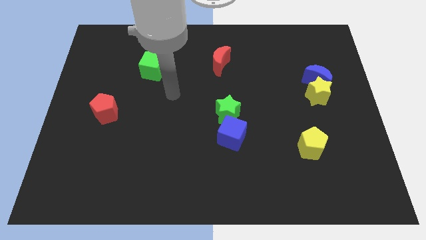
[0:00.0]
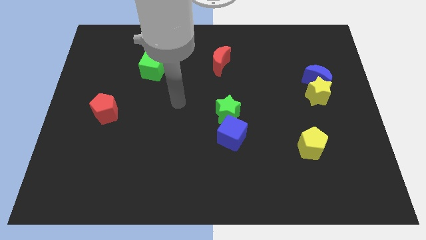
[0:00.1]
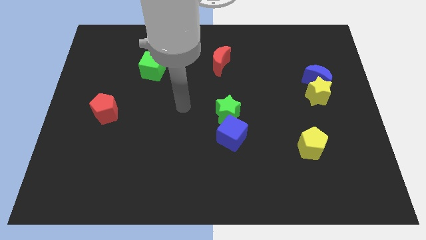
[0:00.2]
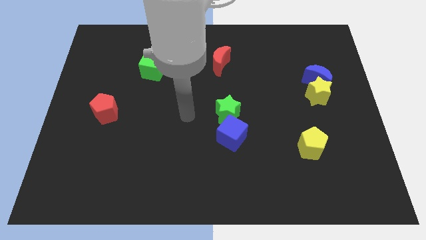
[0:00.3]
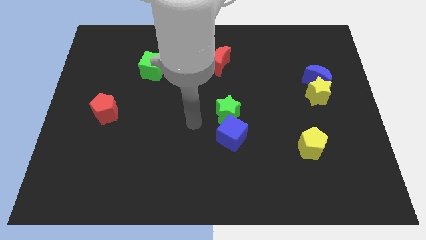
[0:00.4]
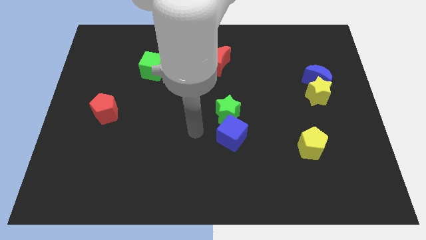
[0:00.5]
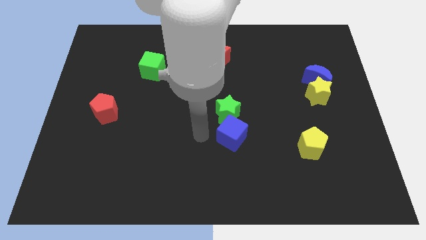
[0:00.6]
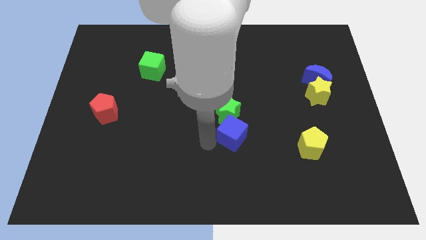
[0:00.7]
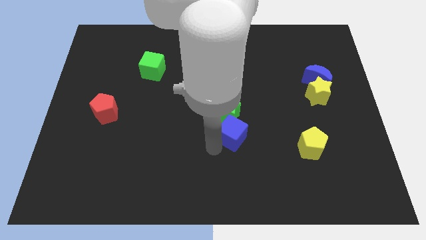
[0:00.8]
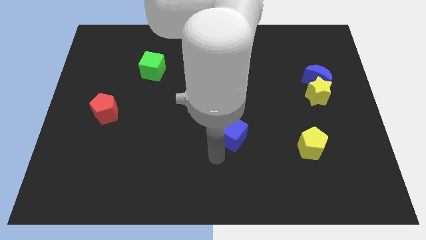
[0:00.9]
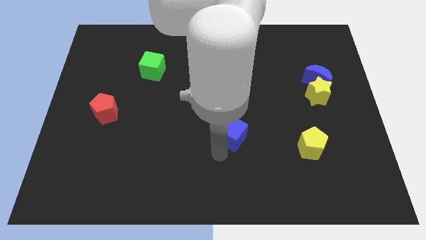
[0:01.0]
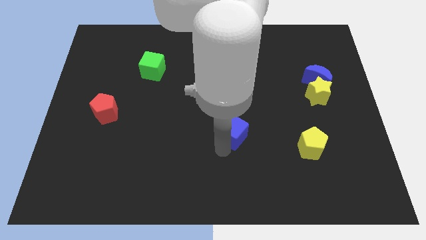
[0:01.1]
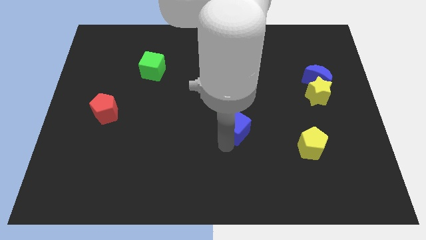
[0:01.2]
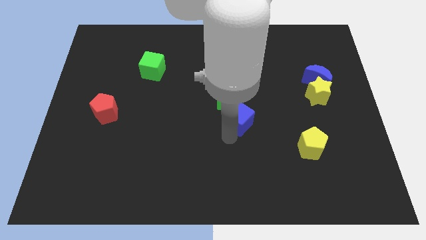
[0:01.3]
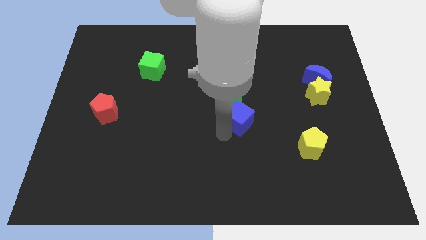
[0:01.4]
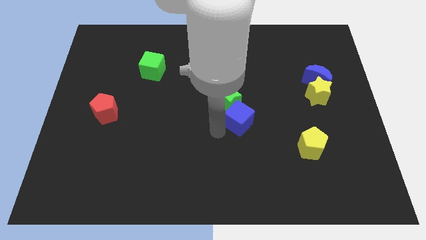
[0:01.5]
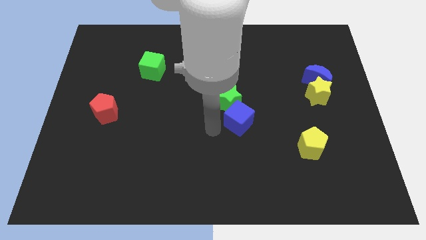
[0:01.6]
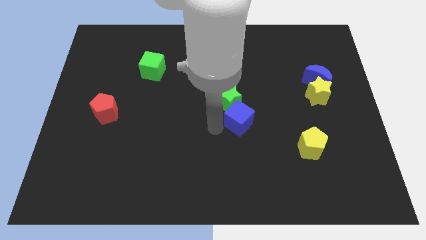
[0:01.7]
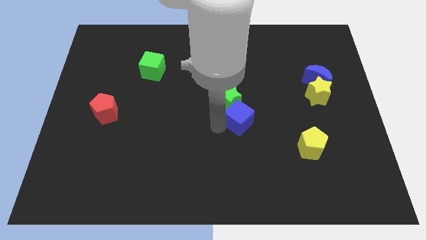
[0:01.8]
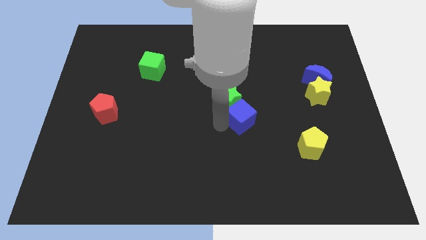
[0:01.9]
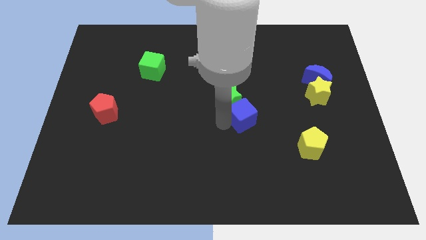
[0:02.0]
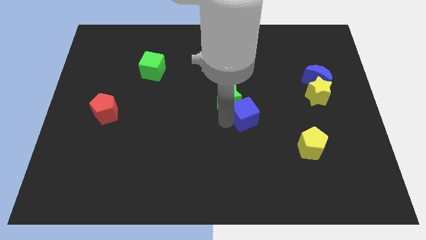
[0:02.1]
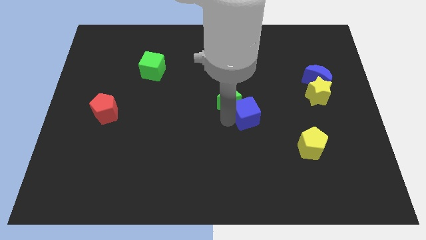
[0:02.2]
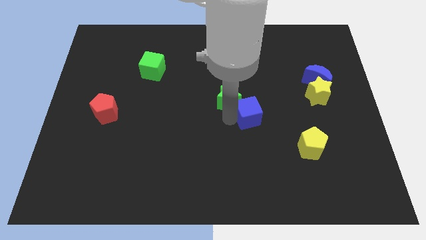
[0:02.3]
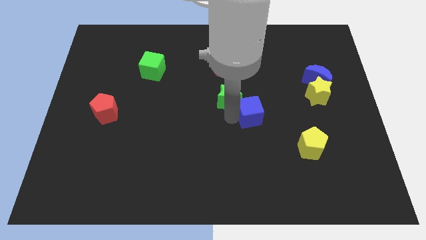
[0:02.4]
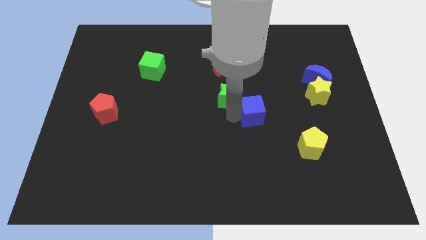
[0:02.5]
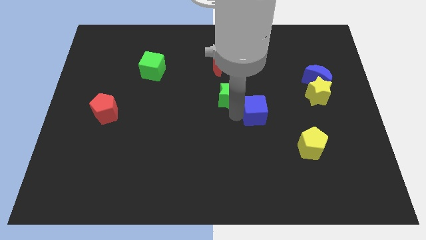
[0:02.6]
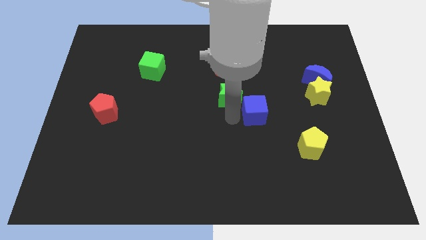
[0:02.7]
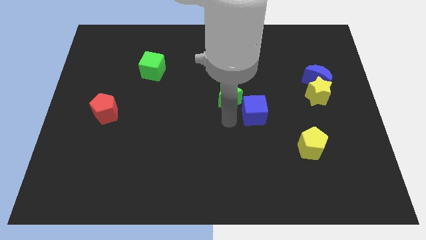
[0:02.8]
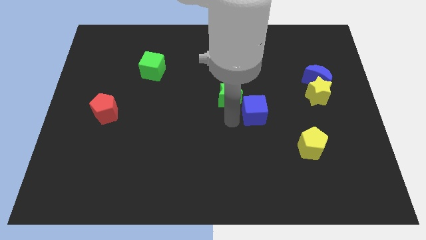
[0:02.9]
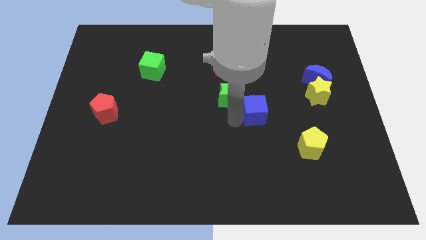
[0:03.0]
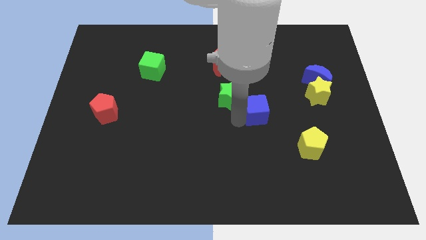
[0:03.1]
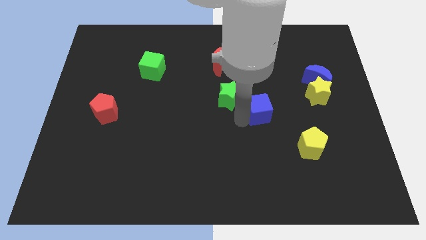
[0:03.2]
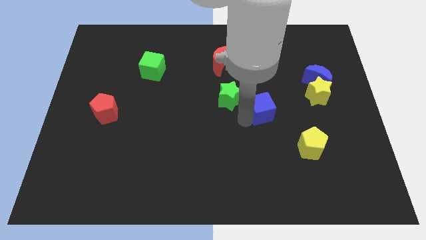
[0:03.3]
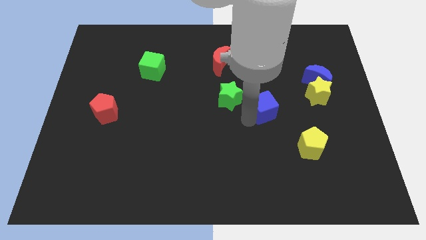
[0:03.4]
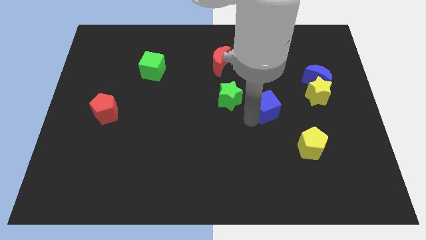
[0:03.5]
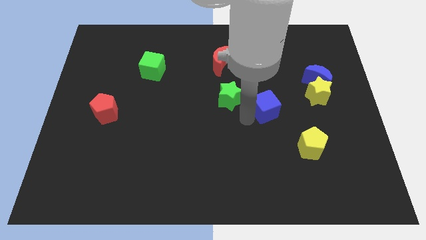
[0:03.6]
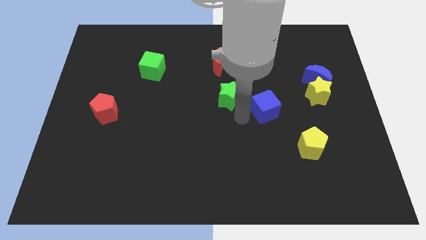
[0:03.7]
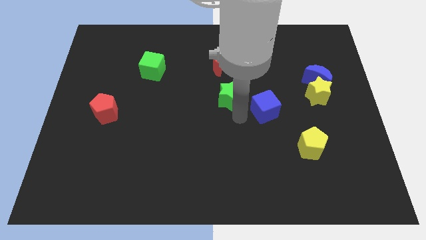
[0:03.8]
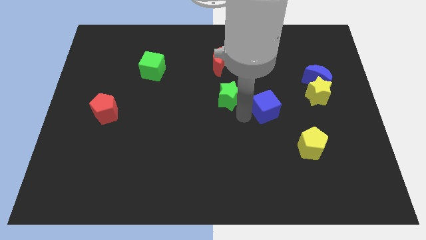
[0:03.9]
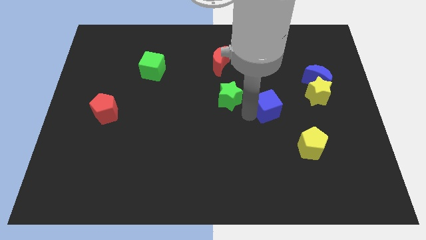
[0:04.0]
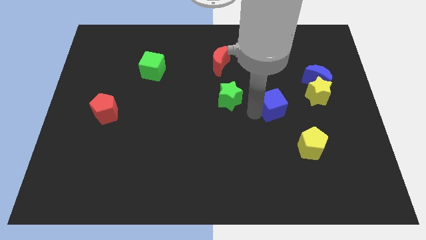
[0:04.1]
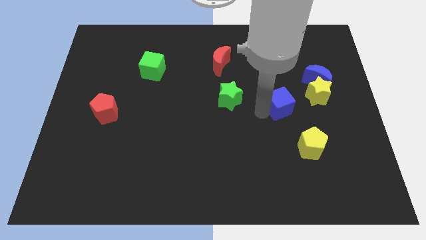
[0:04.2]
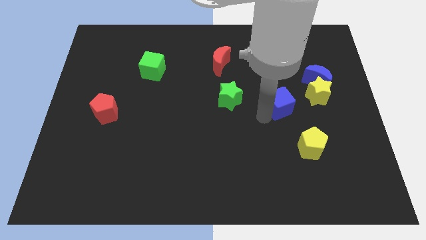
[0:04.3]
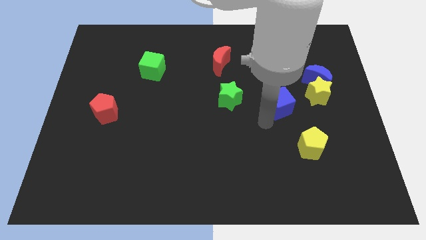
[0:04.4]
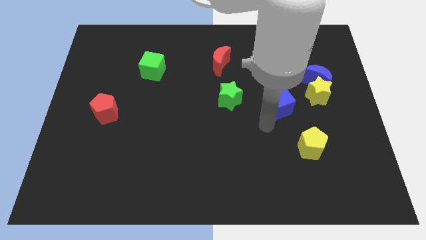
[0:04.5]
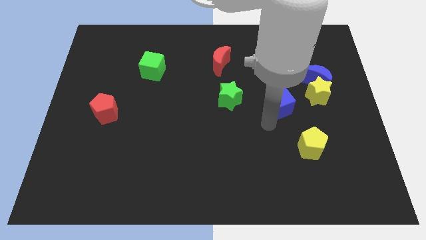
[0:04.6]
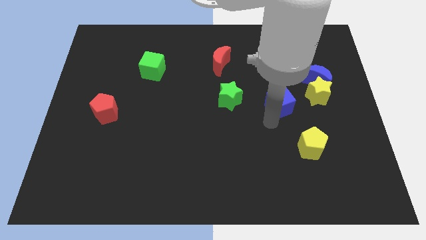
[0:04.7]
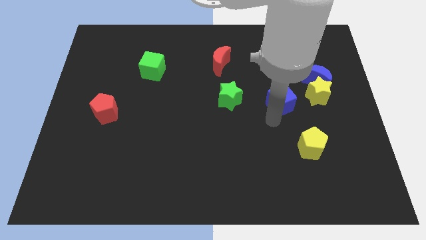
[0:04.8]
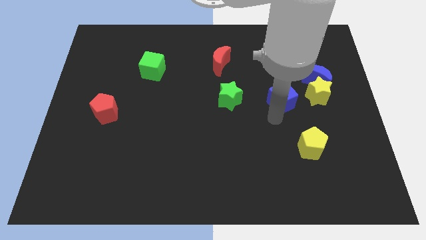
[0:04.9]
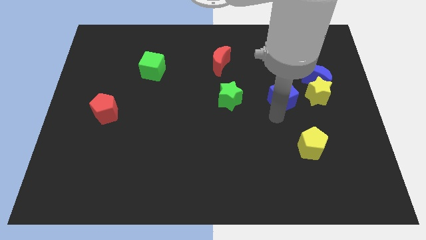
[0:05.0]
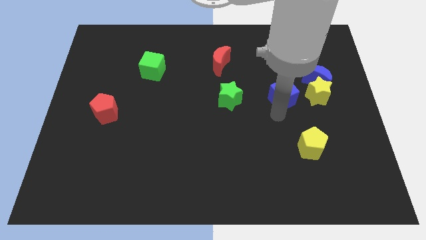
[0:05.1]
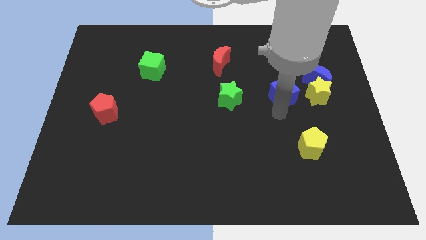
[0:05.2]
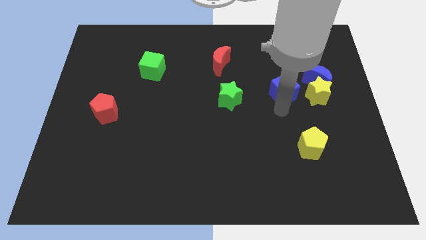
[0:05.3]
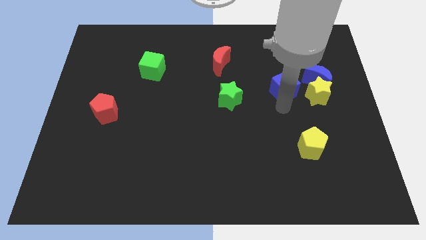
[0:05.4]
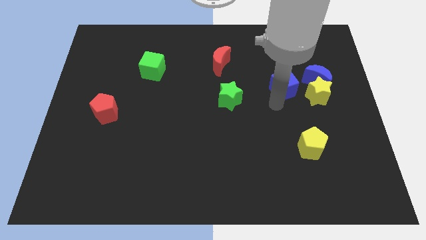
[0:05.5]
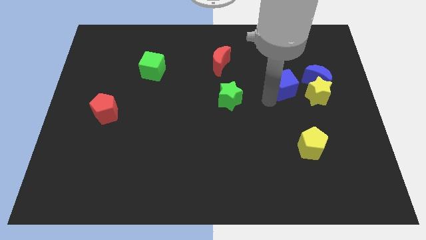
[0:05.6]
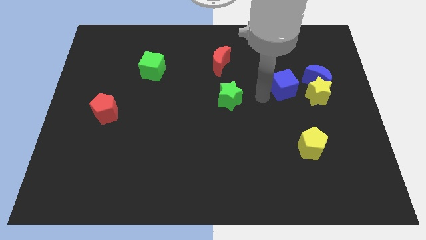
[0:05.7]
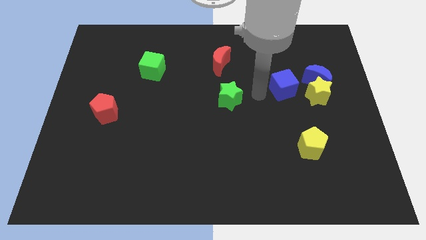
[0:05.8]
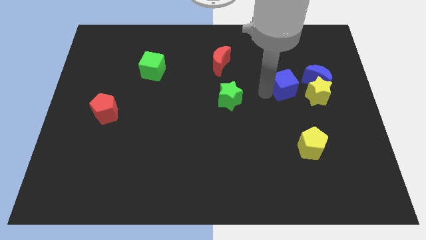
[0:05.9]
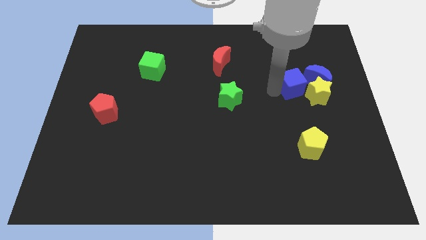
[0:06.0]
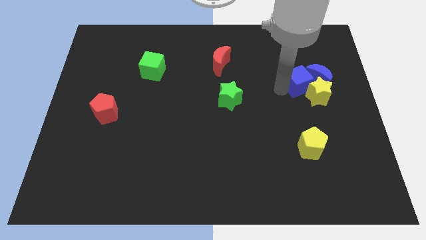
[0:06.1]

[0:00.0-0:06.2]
put the blue cube close to the blue moon

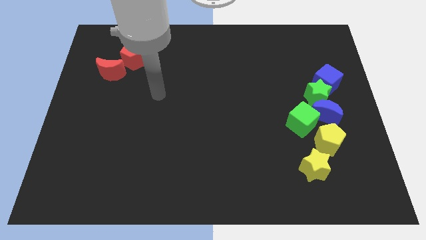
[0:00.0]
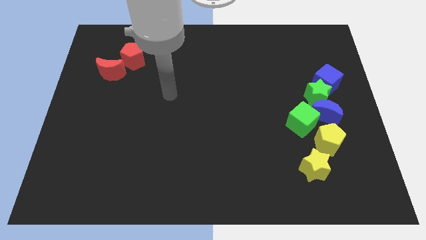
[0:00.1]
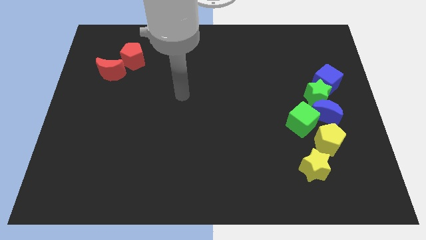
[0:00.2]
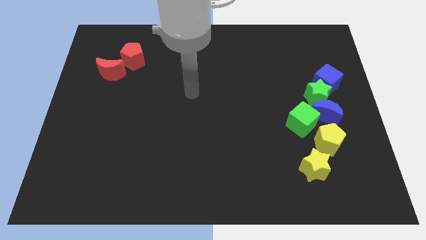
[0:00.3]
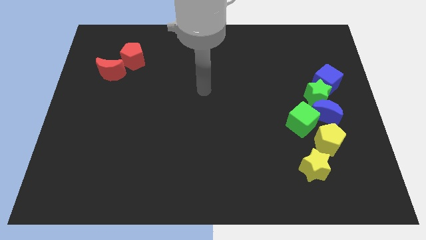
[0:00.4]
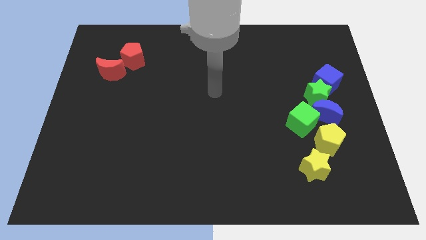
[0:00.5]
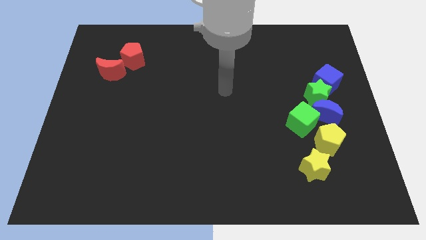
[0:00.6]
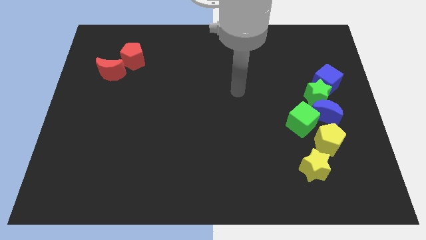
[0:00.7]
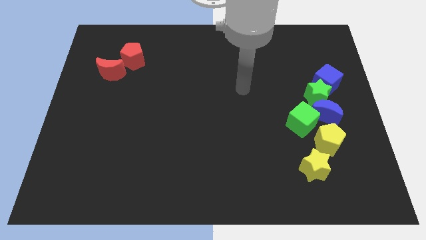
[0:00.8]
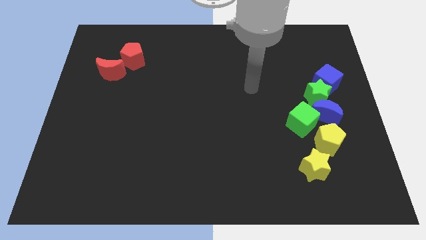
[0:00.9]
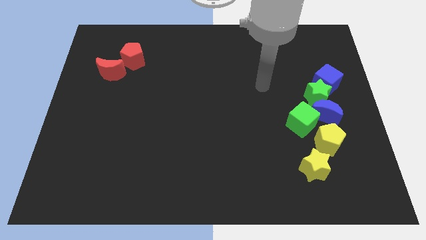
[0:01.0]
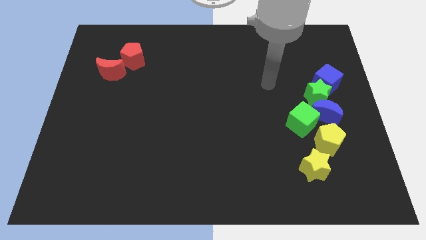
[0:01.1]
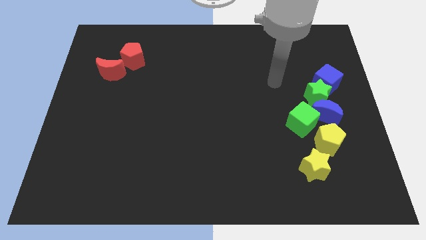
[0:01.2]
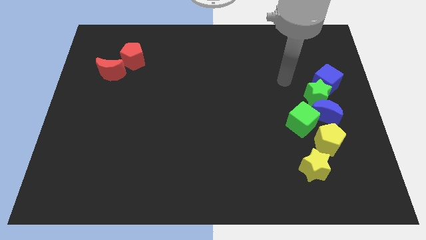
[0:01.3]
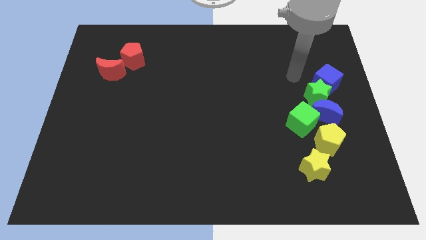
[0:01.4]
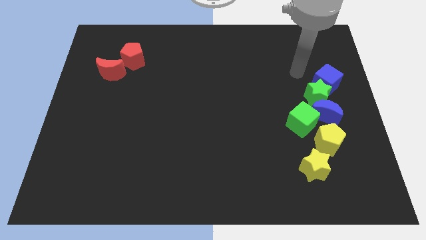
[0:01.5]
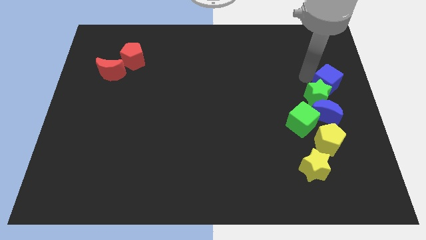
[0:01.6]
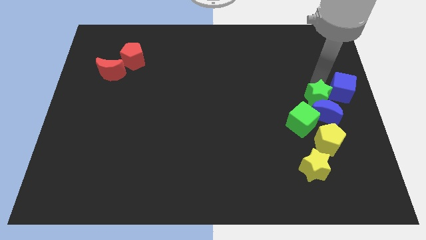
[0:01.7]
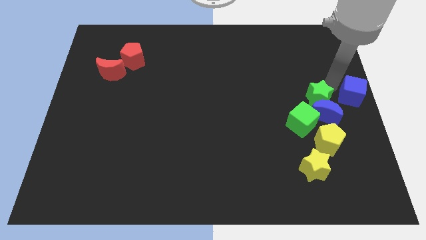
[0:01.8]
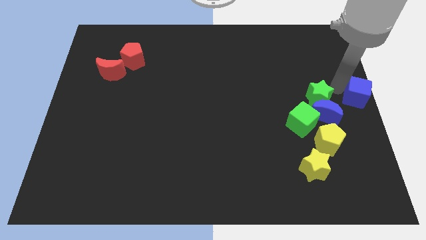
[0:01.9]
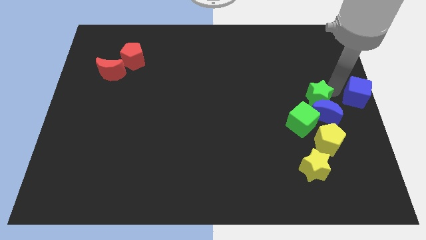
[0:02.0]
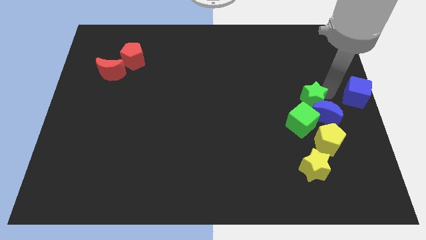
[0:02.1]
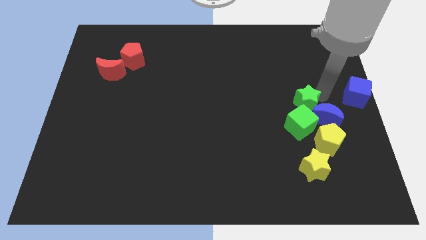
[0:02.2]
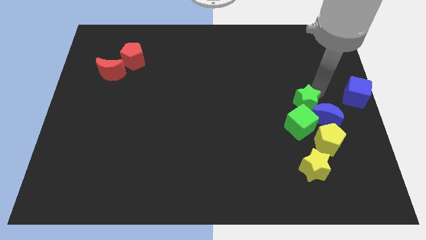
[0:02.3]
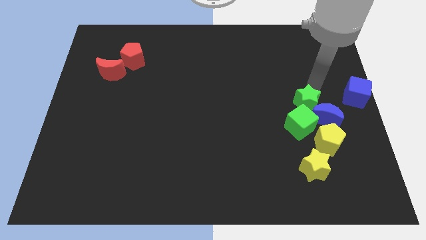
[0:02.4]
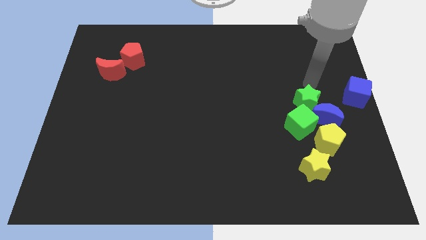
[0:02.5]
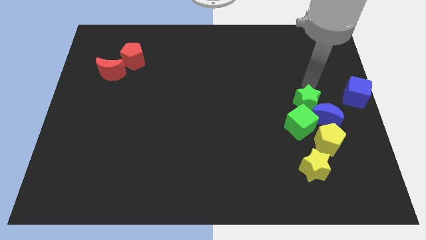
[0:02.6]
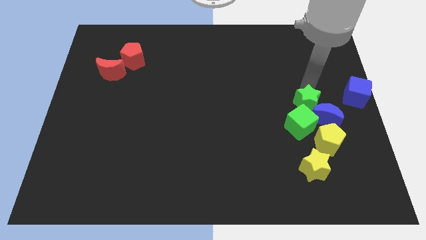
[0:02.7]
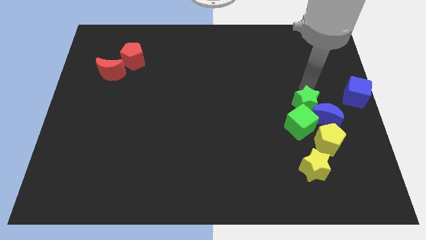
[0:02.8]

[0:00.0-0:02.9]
put the green star next to the green cube
